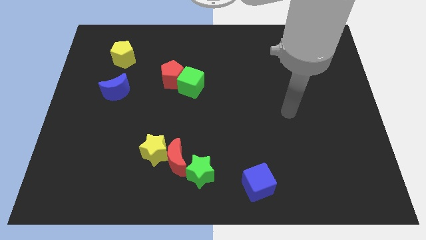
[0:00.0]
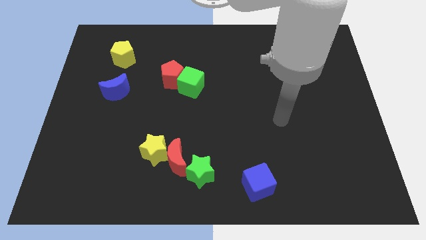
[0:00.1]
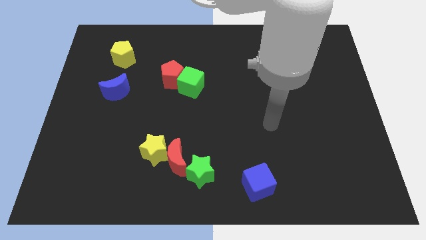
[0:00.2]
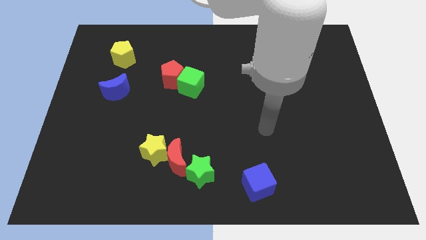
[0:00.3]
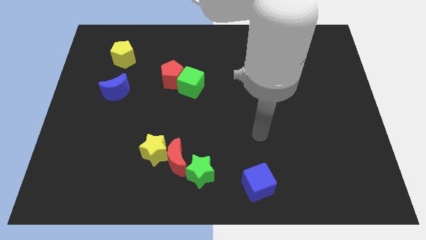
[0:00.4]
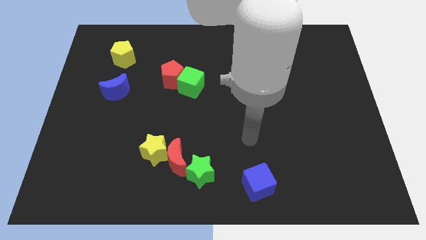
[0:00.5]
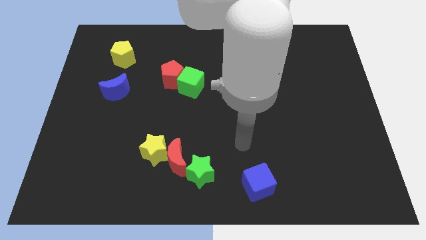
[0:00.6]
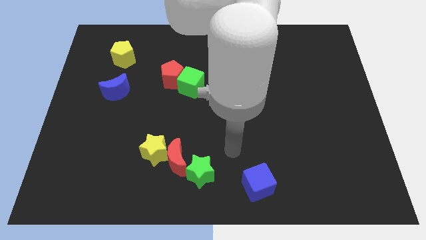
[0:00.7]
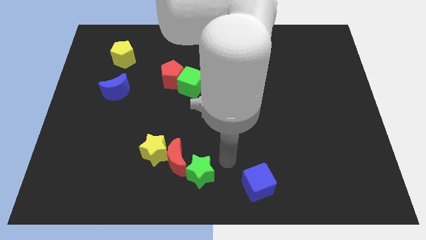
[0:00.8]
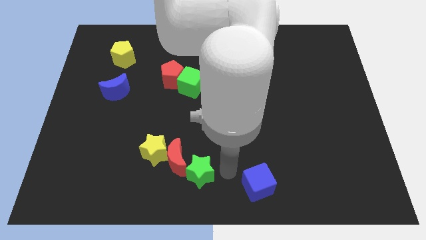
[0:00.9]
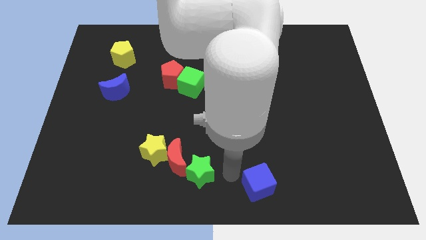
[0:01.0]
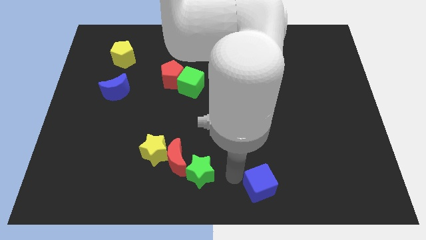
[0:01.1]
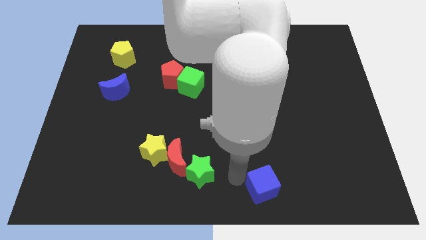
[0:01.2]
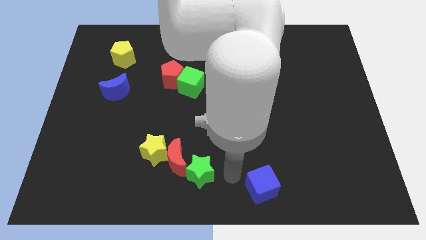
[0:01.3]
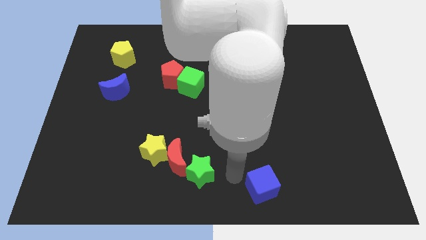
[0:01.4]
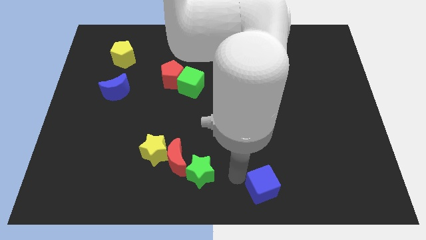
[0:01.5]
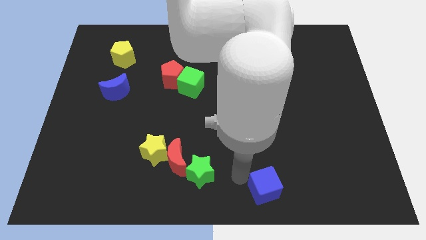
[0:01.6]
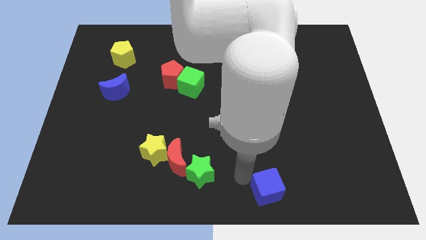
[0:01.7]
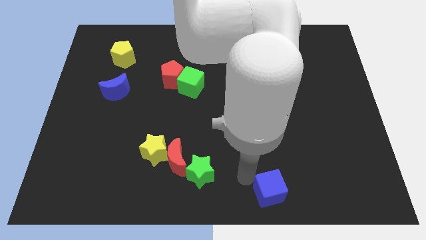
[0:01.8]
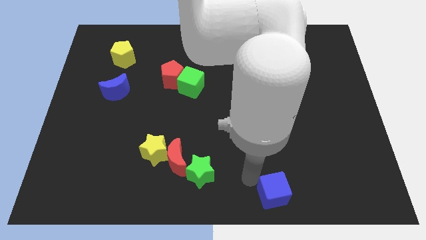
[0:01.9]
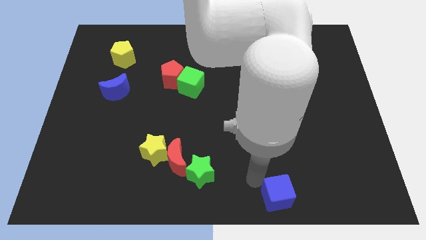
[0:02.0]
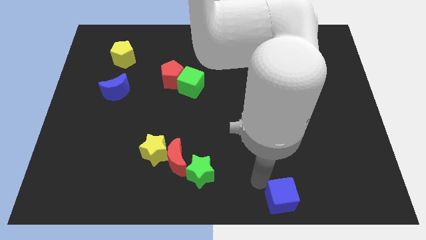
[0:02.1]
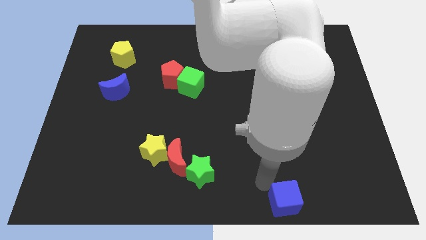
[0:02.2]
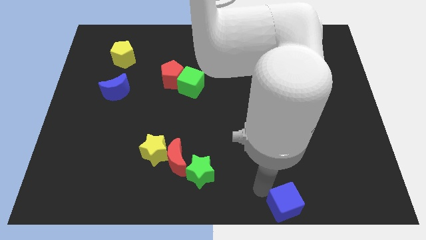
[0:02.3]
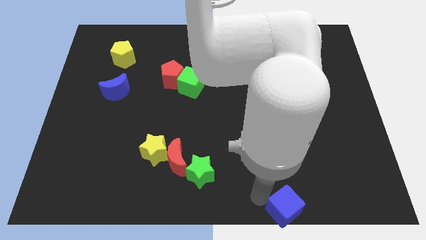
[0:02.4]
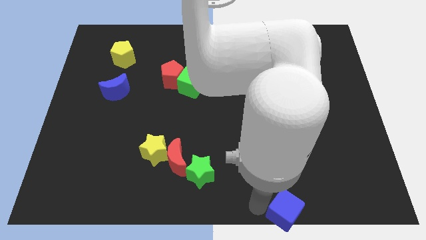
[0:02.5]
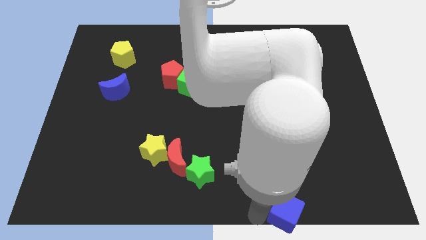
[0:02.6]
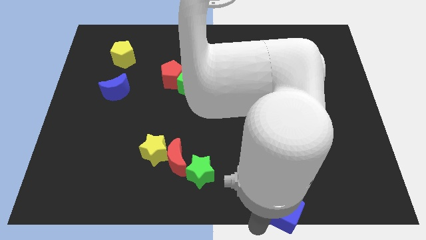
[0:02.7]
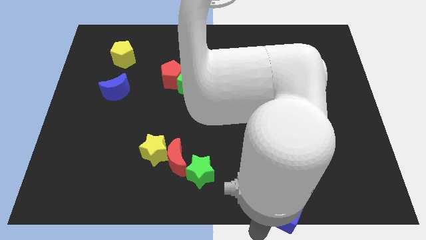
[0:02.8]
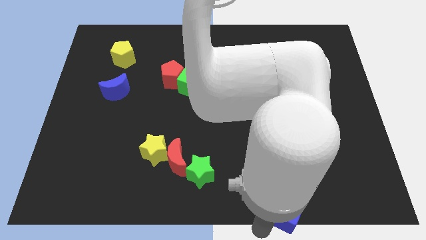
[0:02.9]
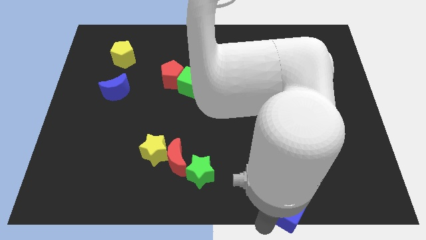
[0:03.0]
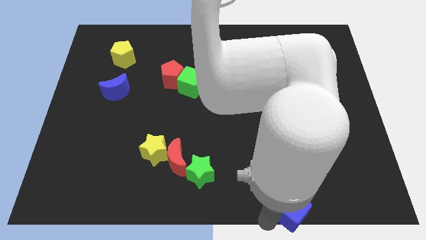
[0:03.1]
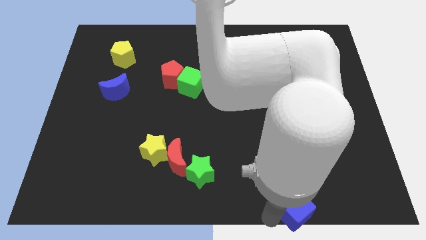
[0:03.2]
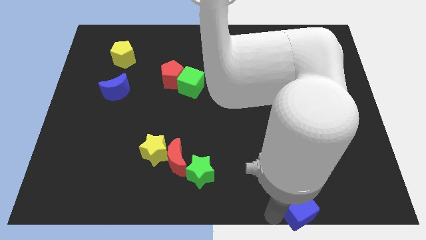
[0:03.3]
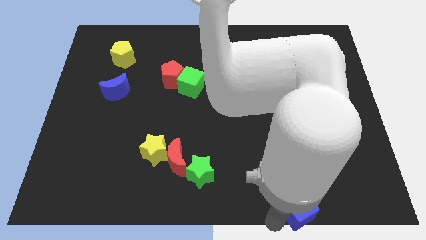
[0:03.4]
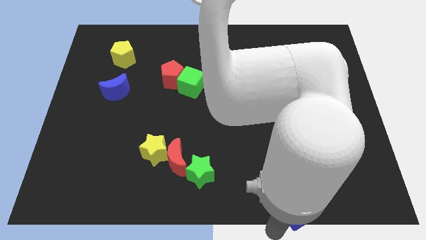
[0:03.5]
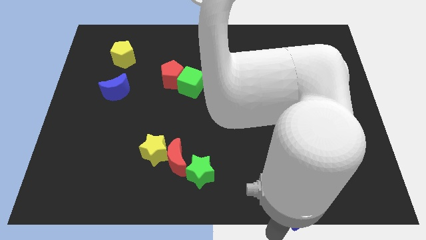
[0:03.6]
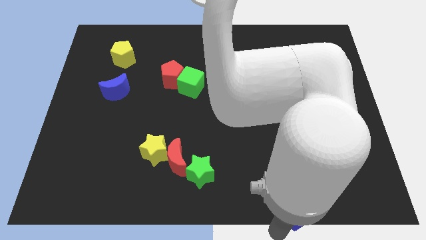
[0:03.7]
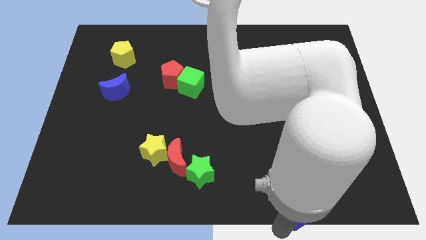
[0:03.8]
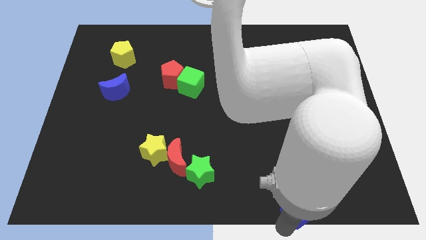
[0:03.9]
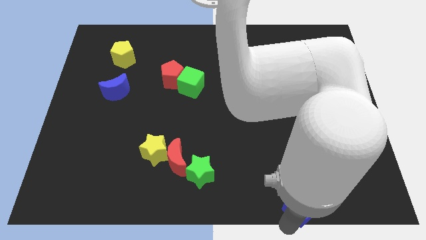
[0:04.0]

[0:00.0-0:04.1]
slide the blue cube to the right a little

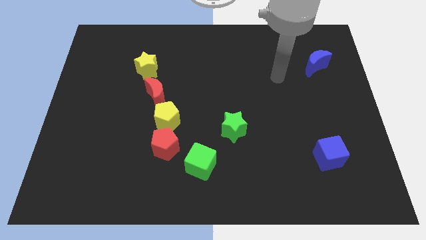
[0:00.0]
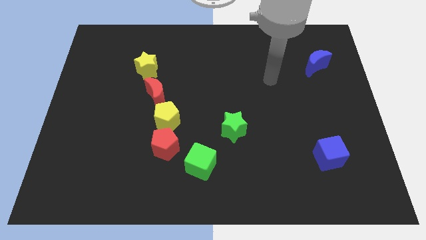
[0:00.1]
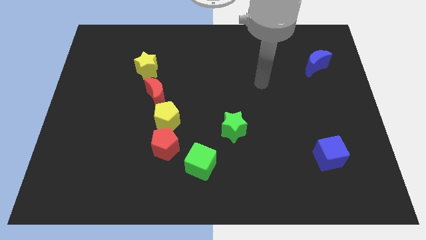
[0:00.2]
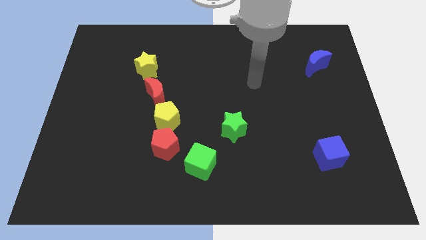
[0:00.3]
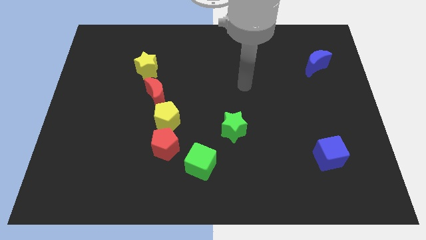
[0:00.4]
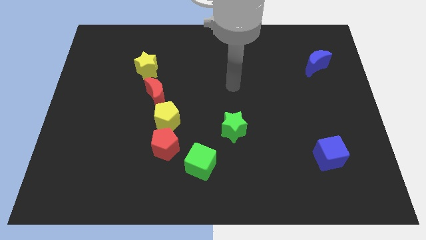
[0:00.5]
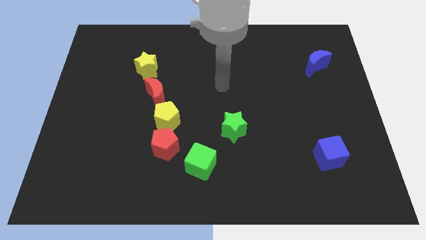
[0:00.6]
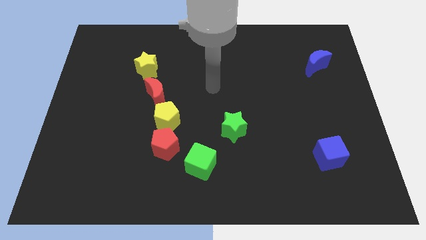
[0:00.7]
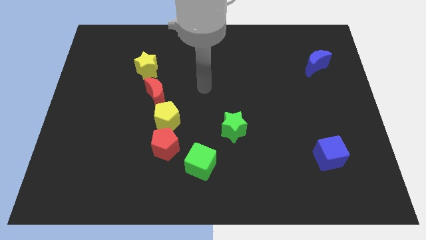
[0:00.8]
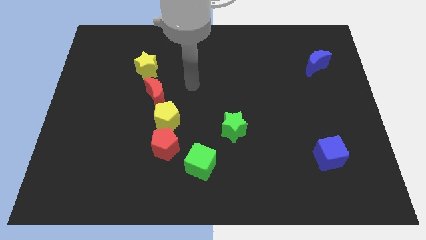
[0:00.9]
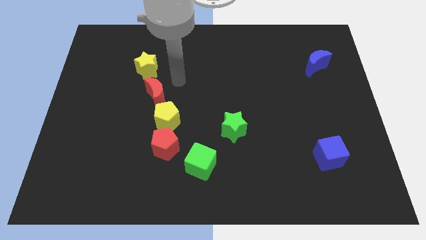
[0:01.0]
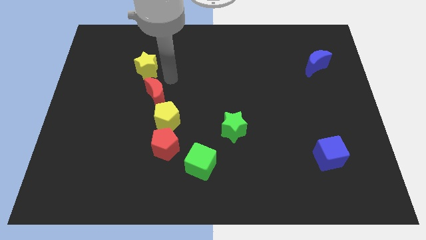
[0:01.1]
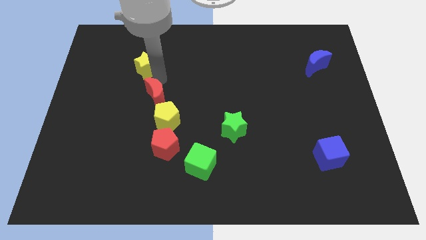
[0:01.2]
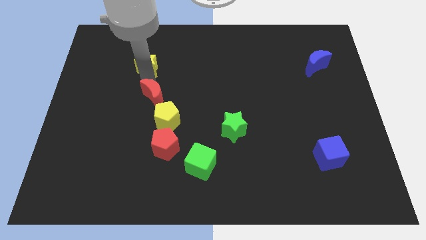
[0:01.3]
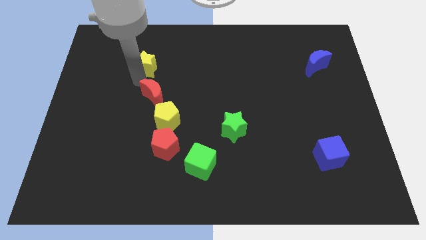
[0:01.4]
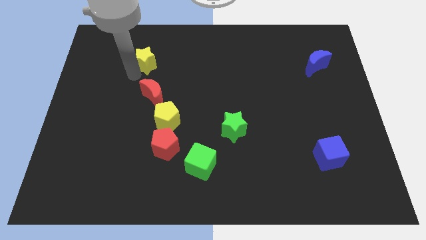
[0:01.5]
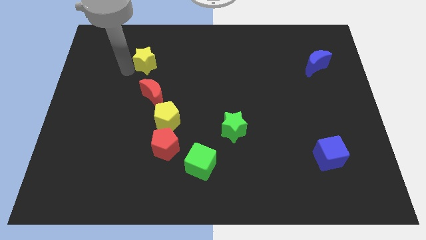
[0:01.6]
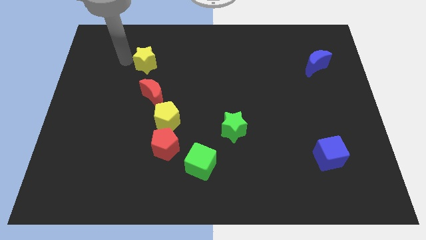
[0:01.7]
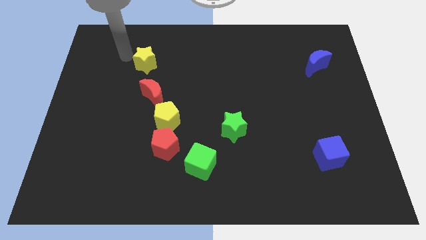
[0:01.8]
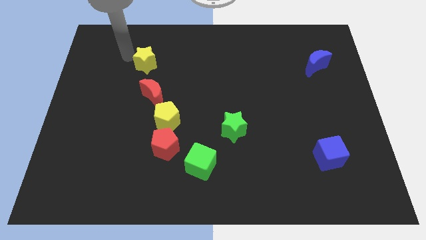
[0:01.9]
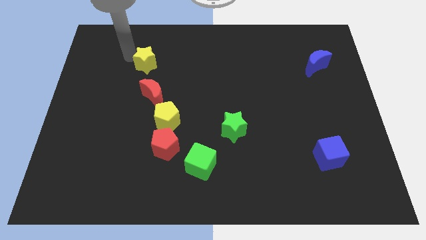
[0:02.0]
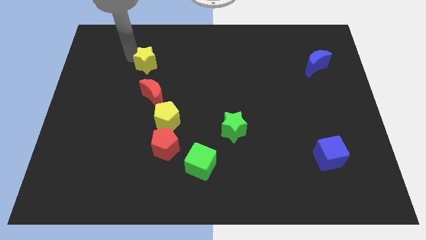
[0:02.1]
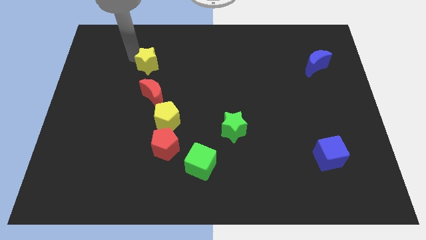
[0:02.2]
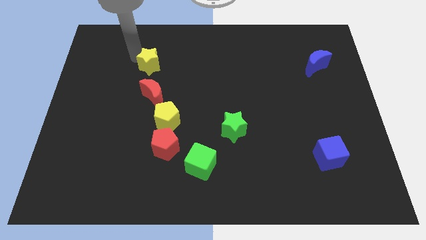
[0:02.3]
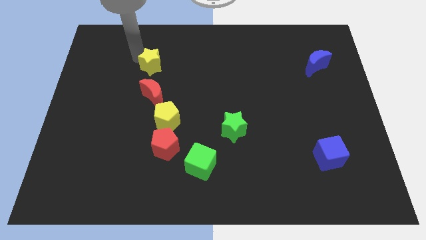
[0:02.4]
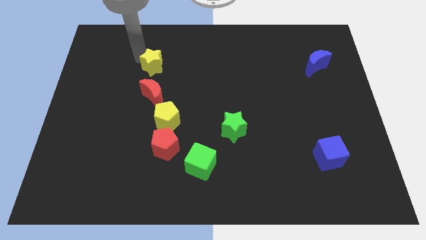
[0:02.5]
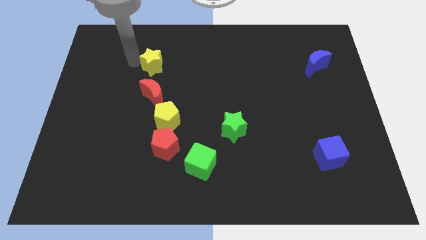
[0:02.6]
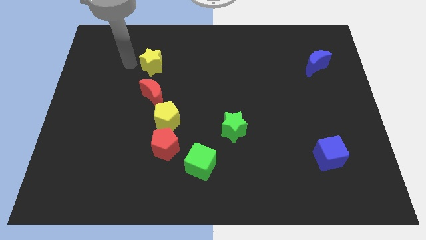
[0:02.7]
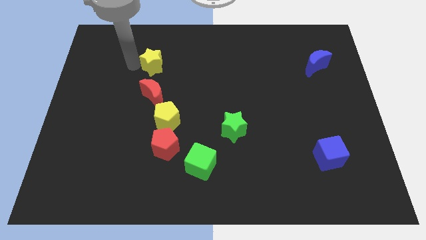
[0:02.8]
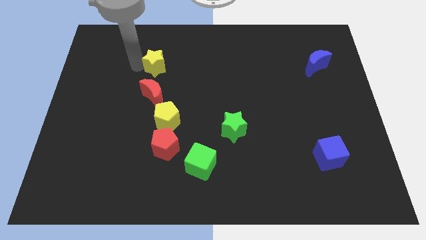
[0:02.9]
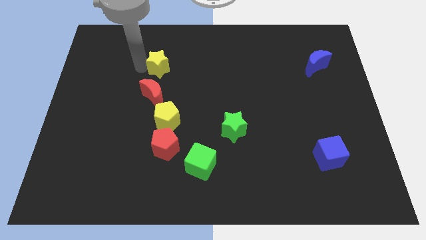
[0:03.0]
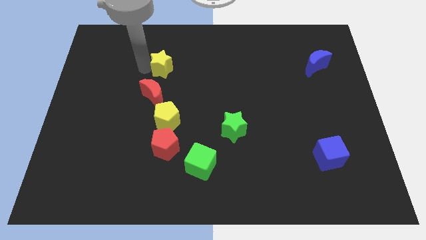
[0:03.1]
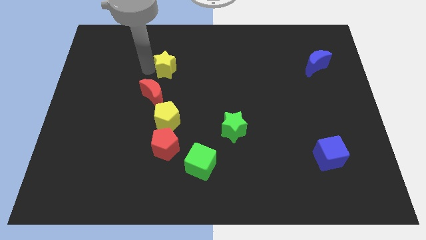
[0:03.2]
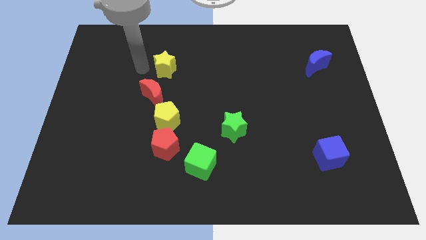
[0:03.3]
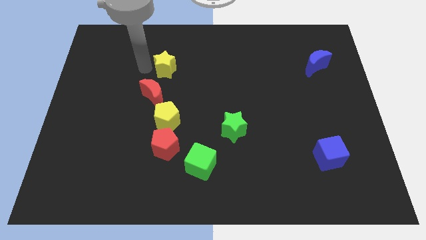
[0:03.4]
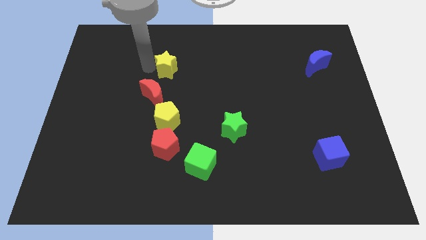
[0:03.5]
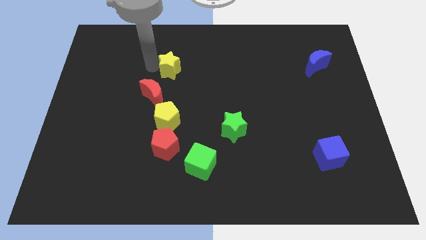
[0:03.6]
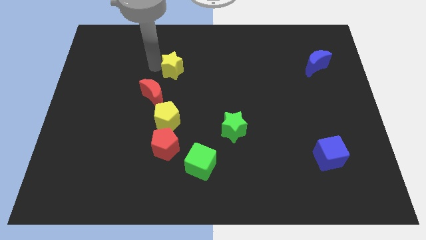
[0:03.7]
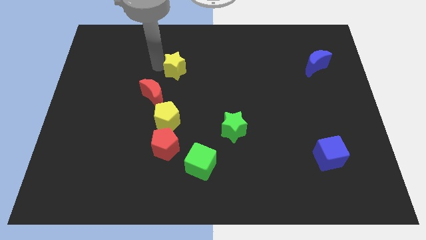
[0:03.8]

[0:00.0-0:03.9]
move the yellow star slightly to the right
